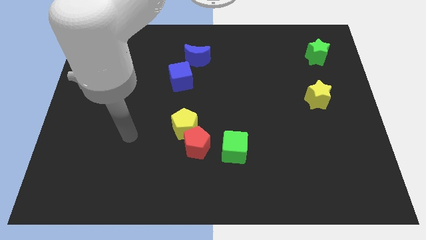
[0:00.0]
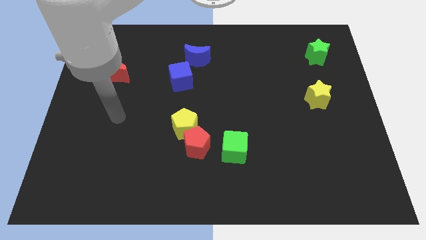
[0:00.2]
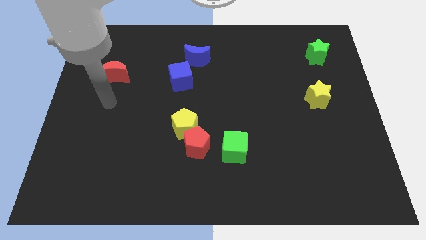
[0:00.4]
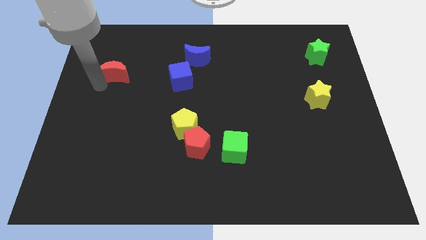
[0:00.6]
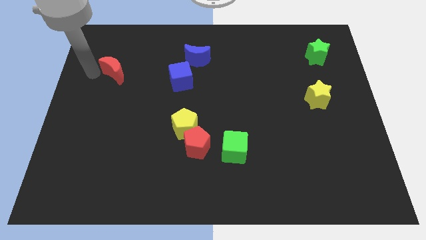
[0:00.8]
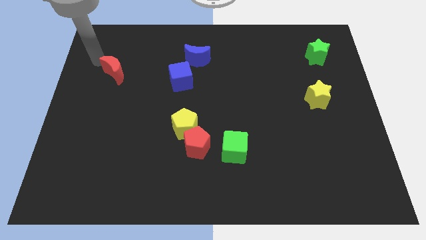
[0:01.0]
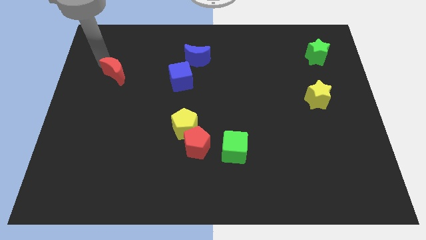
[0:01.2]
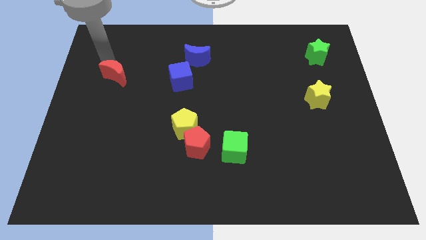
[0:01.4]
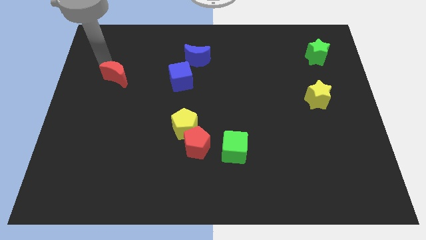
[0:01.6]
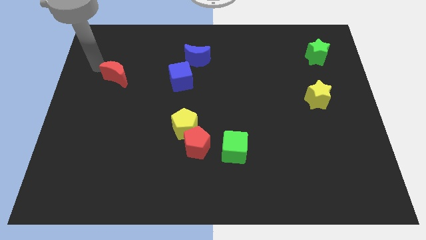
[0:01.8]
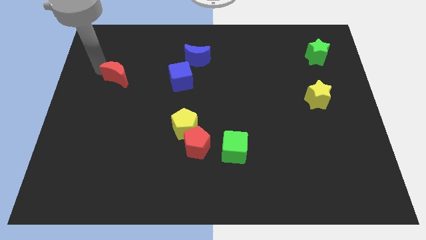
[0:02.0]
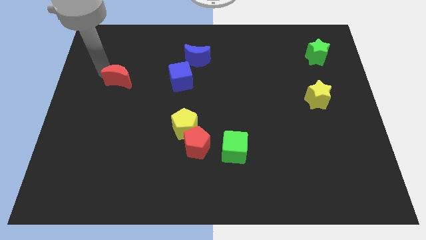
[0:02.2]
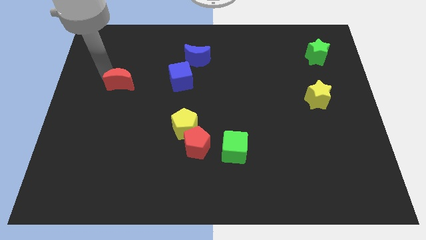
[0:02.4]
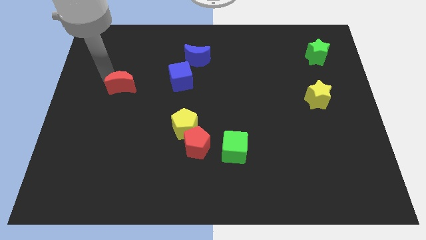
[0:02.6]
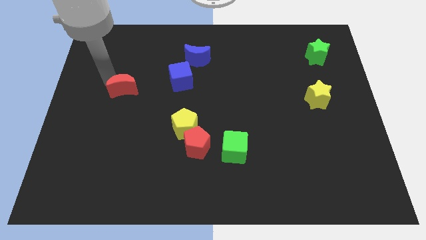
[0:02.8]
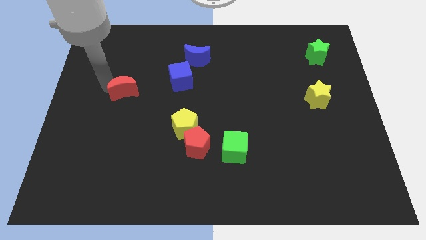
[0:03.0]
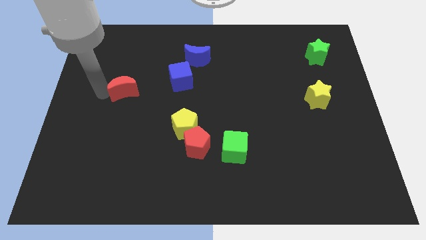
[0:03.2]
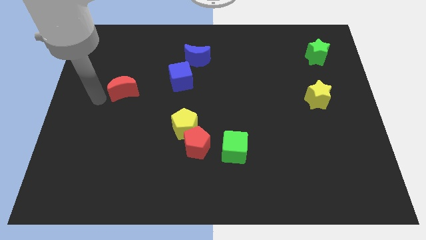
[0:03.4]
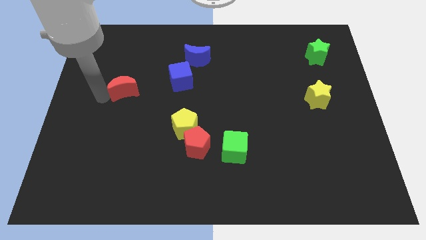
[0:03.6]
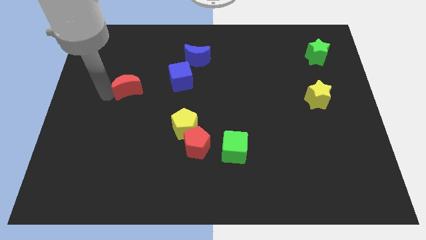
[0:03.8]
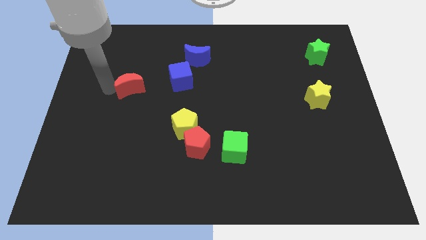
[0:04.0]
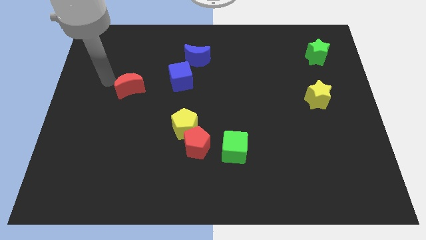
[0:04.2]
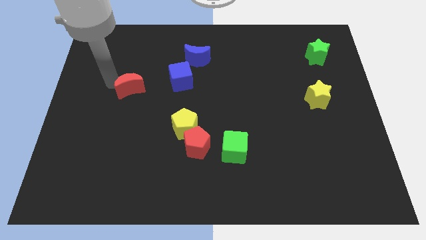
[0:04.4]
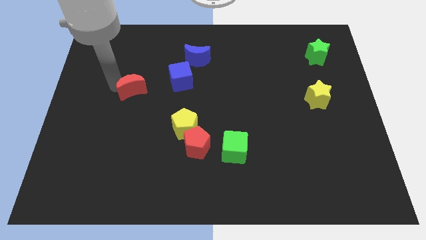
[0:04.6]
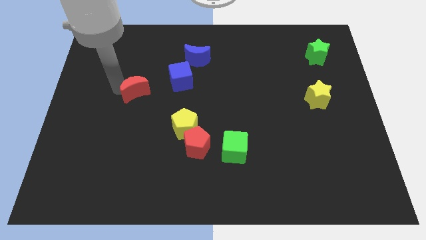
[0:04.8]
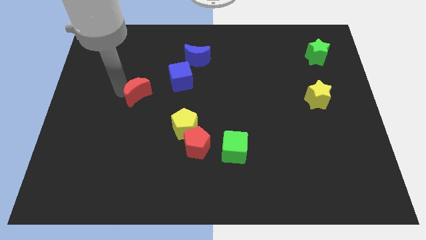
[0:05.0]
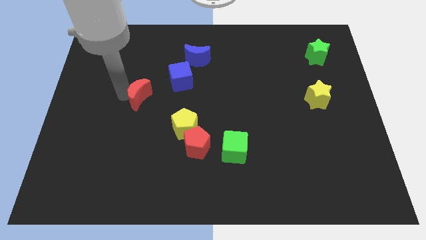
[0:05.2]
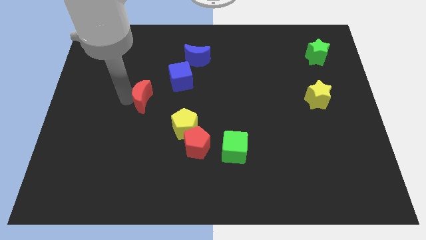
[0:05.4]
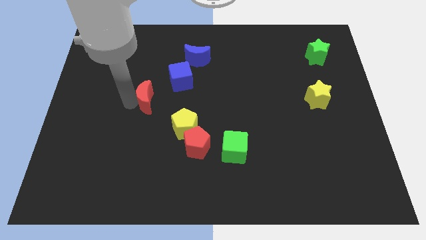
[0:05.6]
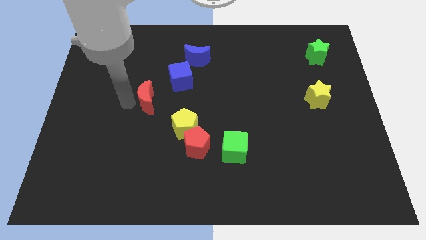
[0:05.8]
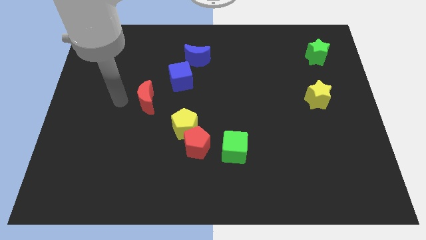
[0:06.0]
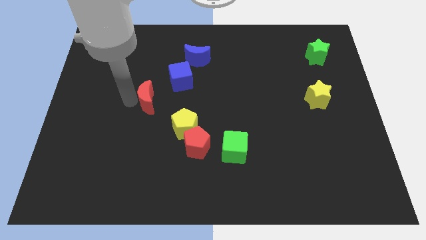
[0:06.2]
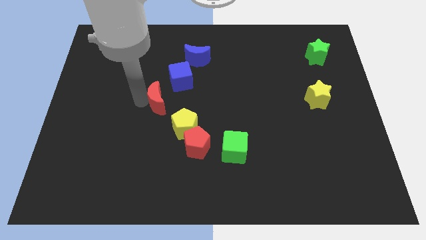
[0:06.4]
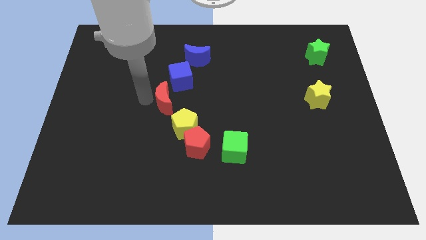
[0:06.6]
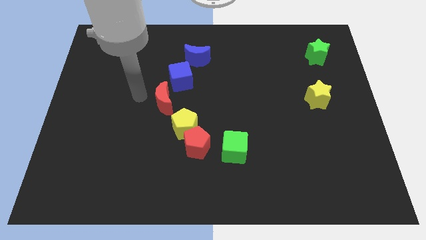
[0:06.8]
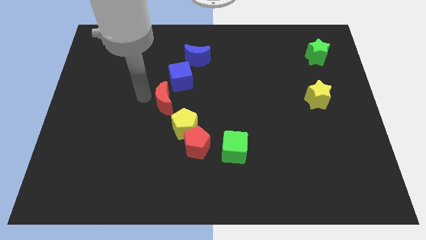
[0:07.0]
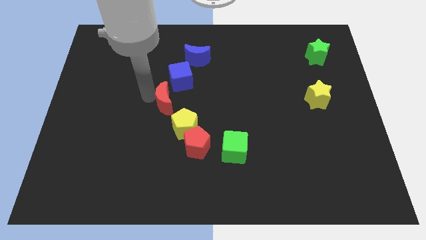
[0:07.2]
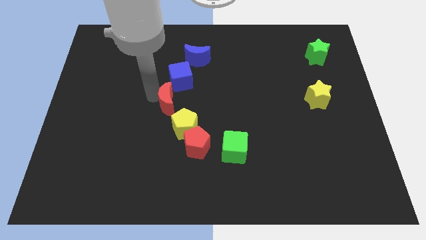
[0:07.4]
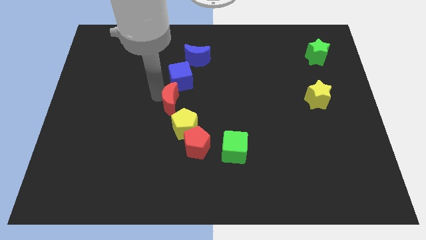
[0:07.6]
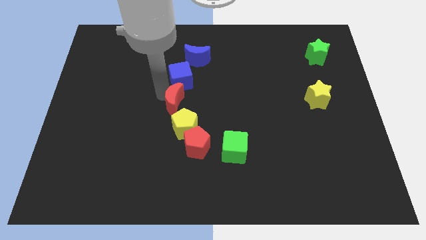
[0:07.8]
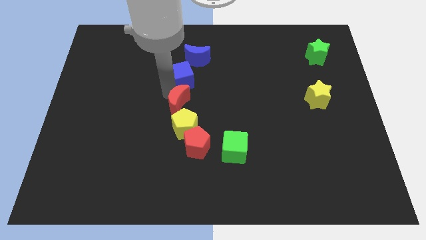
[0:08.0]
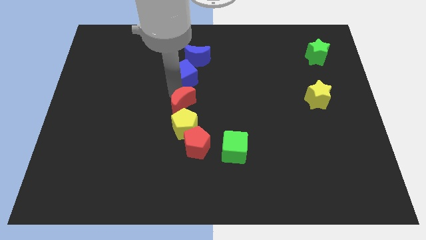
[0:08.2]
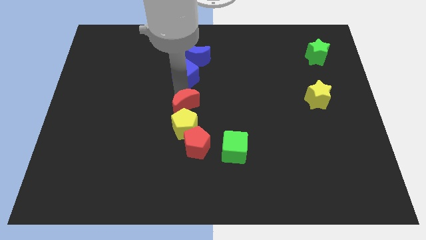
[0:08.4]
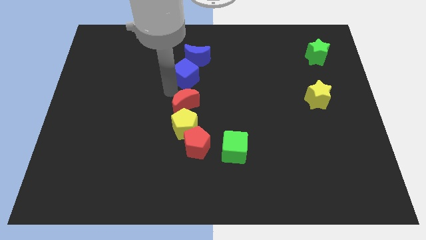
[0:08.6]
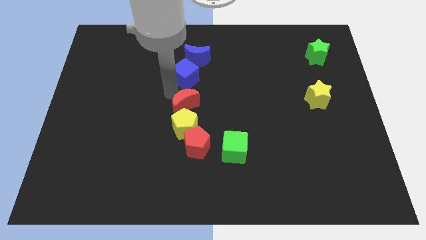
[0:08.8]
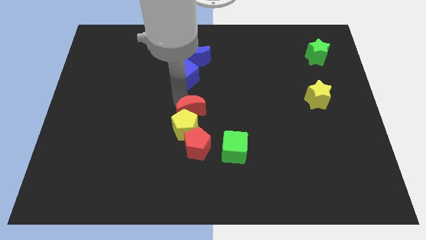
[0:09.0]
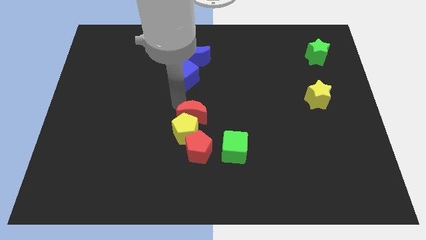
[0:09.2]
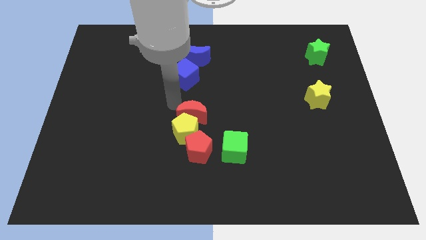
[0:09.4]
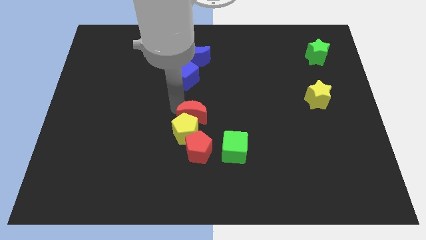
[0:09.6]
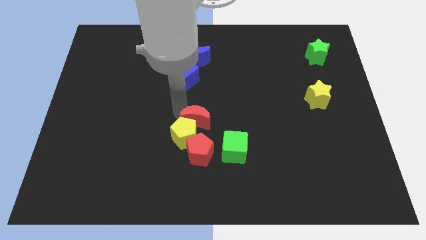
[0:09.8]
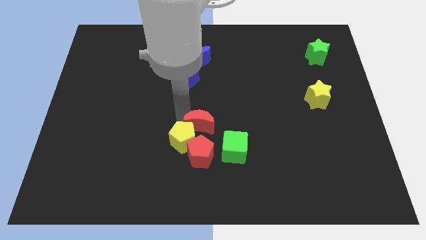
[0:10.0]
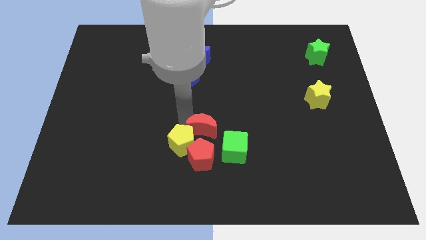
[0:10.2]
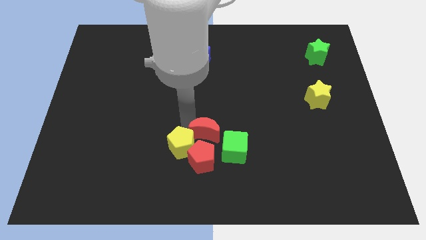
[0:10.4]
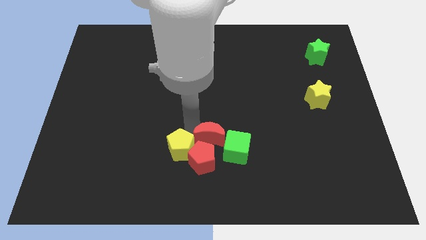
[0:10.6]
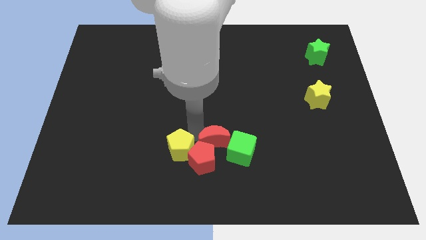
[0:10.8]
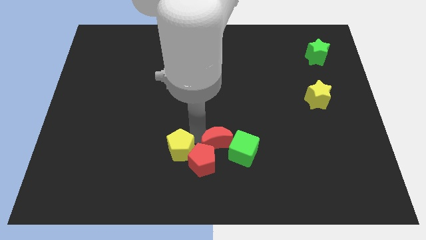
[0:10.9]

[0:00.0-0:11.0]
move the red moon to the green cube

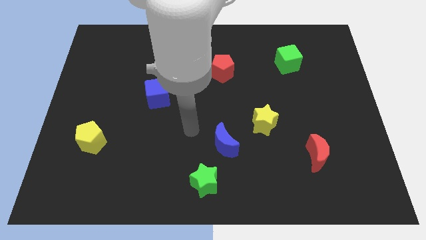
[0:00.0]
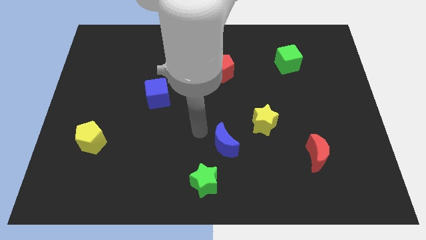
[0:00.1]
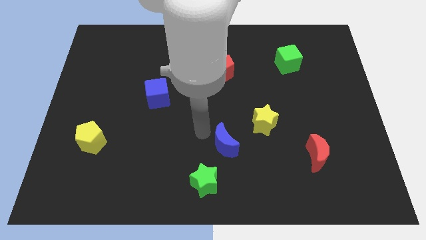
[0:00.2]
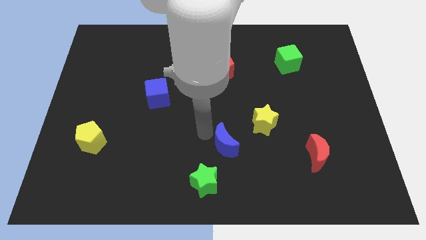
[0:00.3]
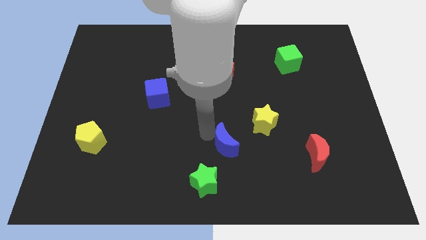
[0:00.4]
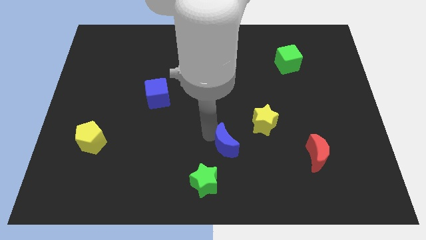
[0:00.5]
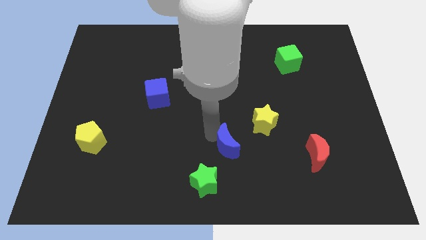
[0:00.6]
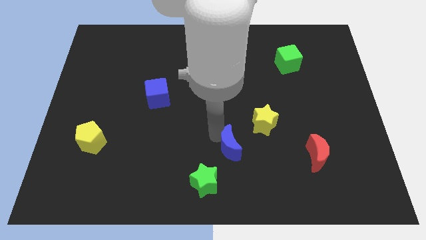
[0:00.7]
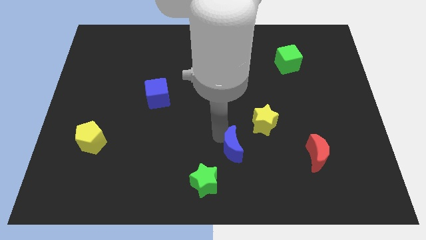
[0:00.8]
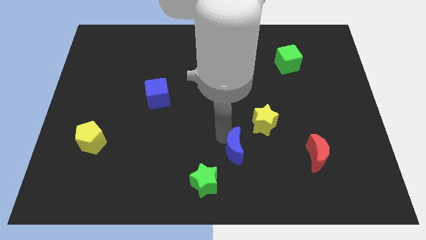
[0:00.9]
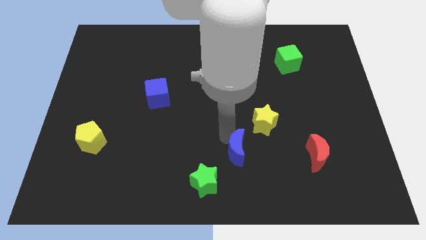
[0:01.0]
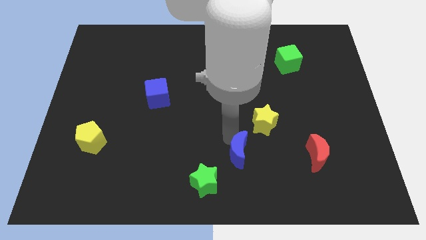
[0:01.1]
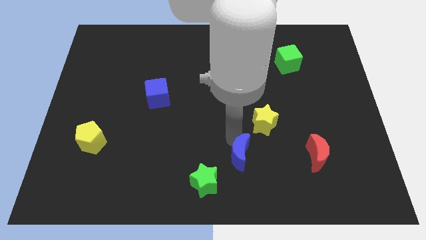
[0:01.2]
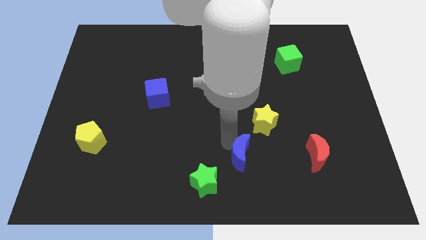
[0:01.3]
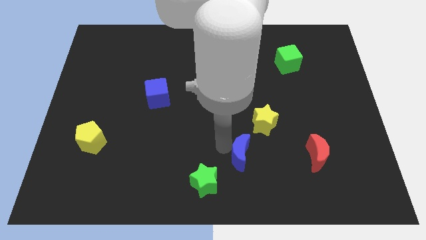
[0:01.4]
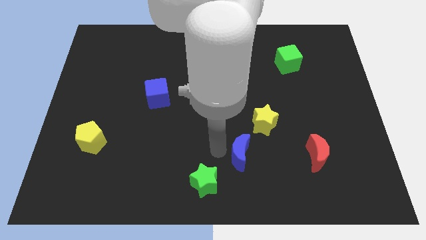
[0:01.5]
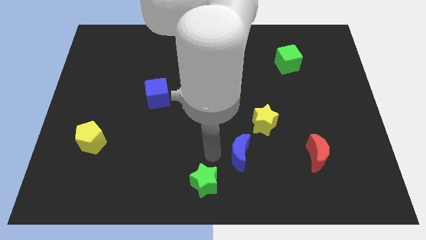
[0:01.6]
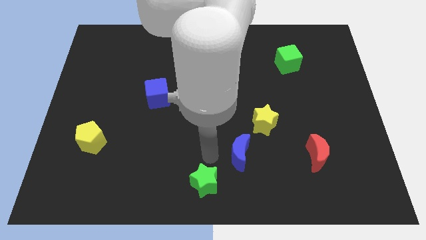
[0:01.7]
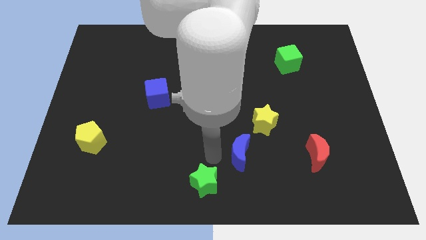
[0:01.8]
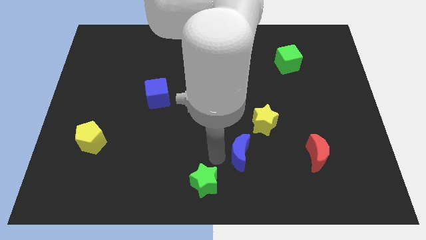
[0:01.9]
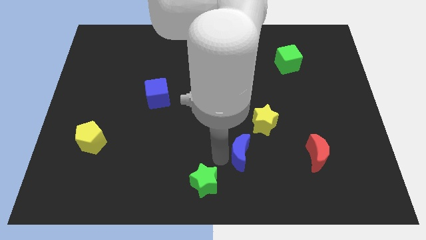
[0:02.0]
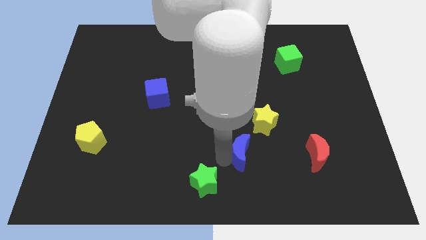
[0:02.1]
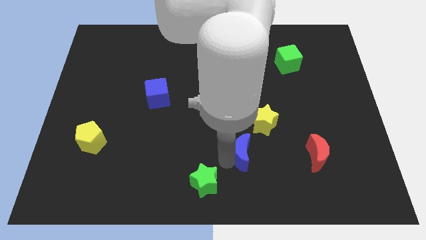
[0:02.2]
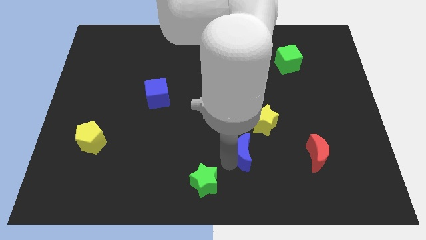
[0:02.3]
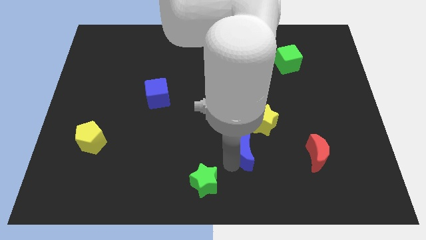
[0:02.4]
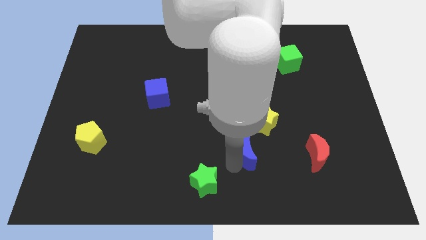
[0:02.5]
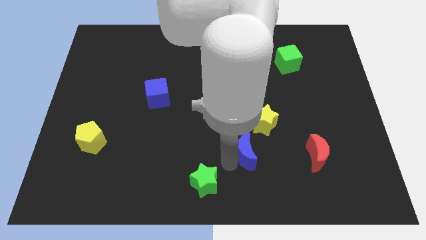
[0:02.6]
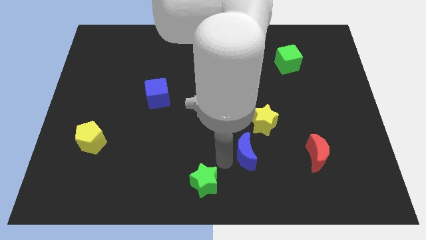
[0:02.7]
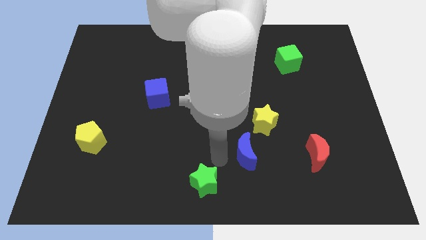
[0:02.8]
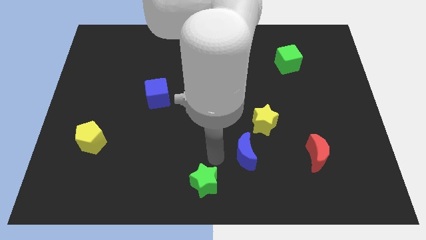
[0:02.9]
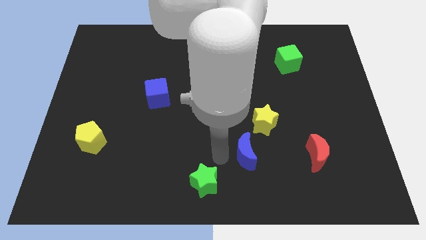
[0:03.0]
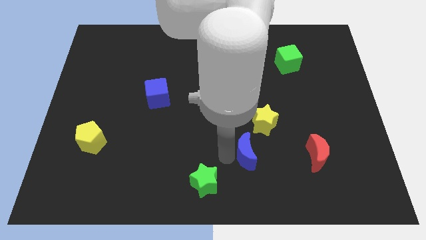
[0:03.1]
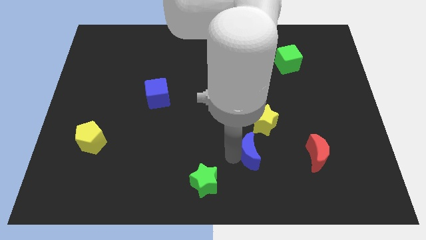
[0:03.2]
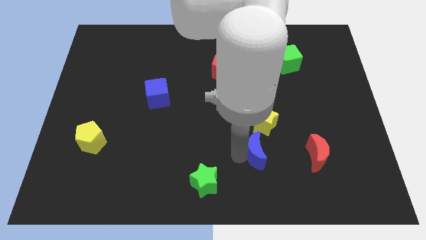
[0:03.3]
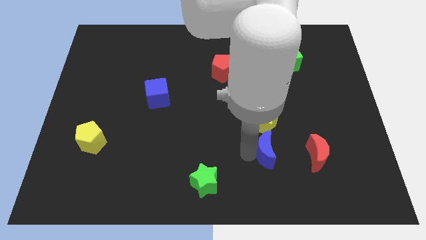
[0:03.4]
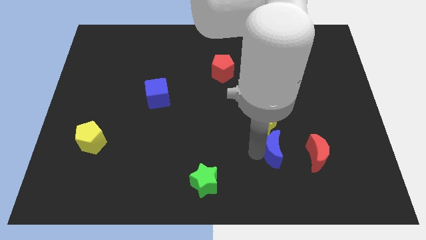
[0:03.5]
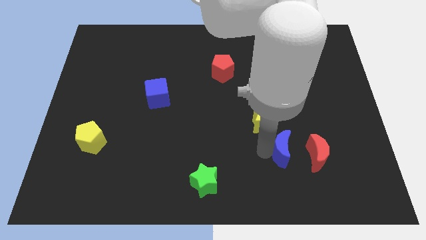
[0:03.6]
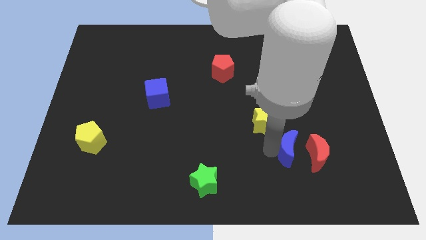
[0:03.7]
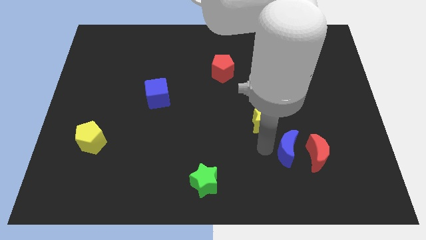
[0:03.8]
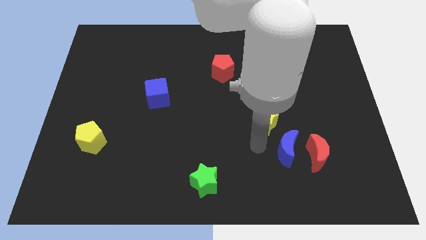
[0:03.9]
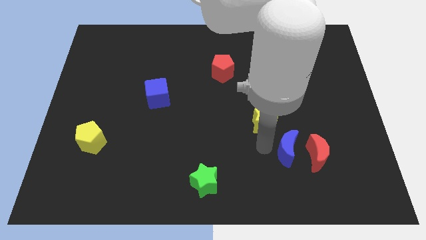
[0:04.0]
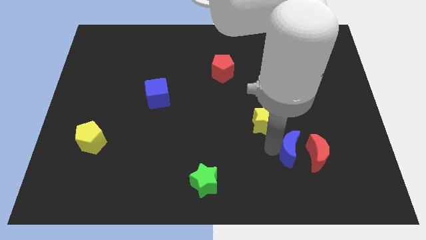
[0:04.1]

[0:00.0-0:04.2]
put the blue moon towards the red moon
